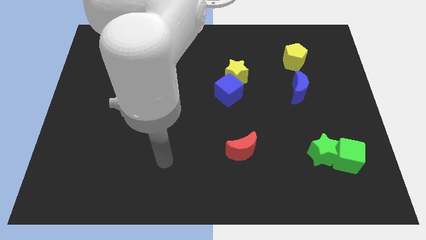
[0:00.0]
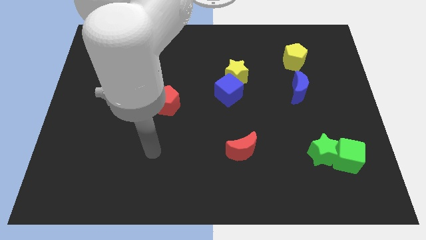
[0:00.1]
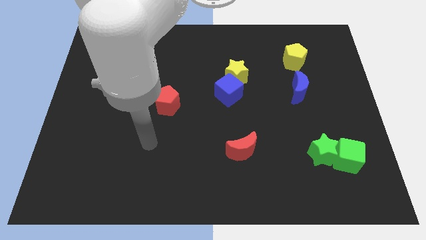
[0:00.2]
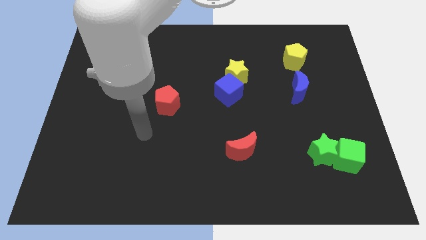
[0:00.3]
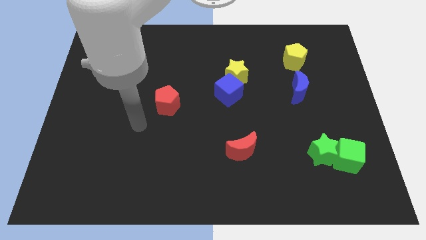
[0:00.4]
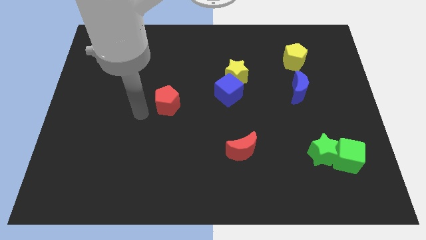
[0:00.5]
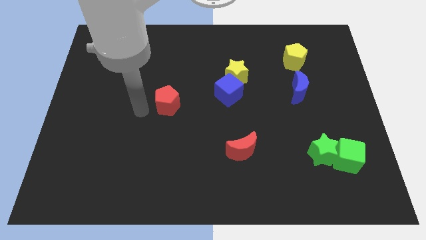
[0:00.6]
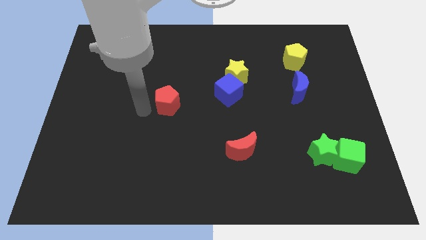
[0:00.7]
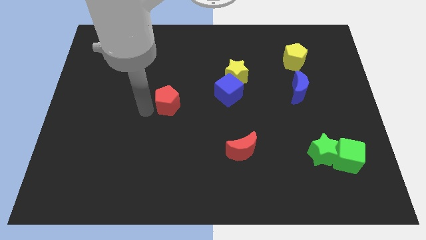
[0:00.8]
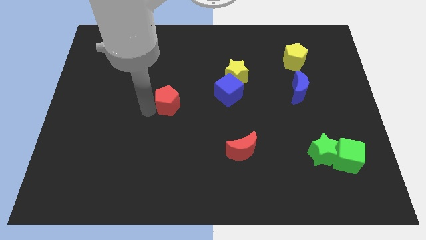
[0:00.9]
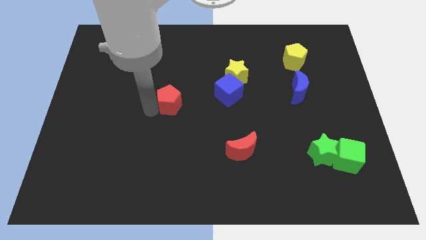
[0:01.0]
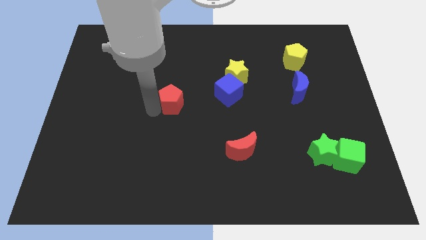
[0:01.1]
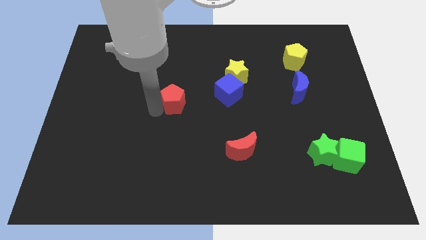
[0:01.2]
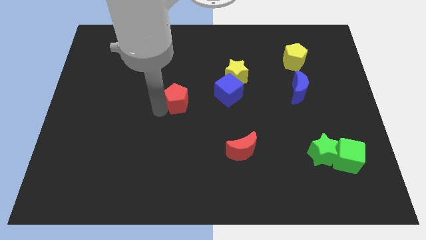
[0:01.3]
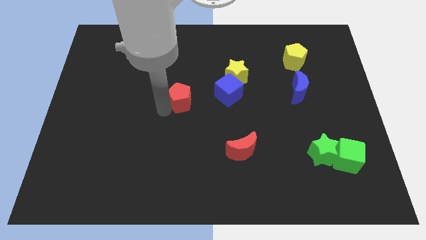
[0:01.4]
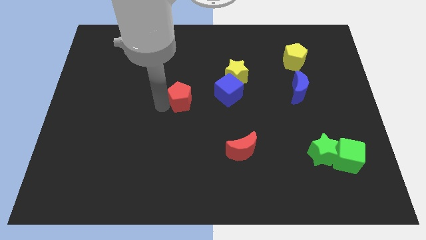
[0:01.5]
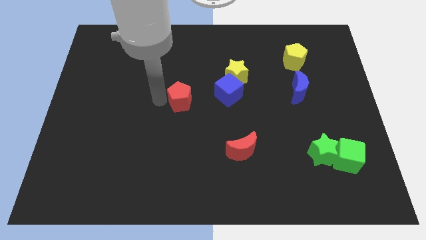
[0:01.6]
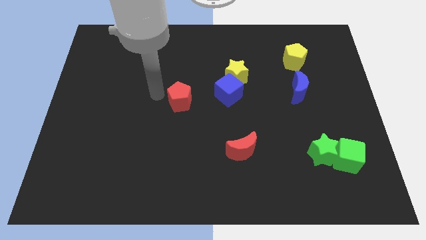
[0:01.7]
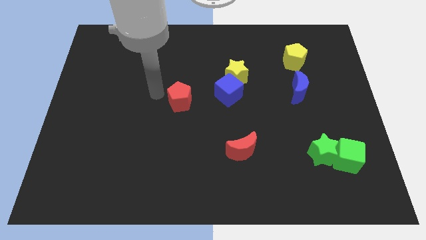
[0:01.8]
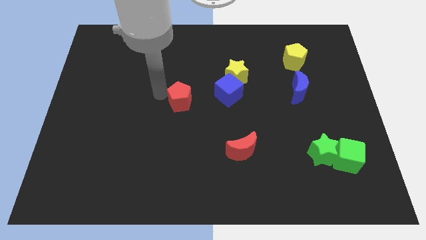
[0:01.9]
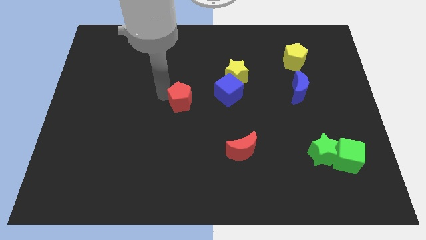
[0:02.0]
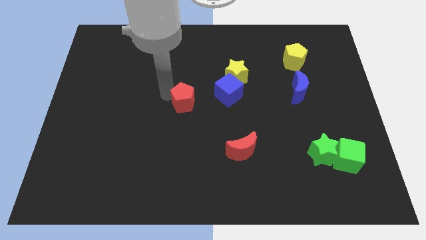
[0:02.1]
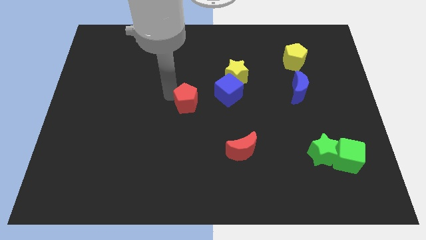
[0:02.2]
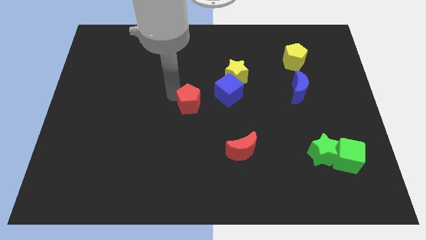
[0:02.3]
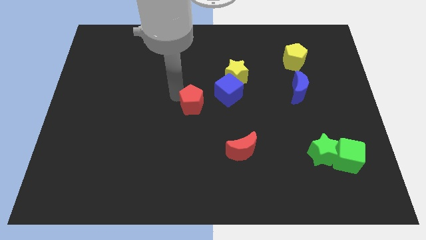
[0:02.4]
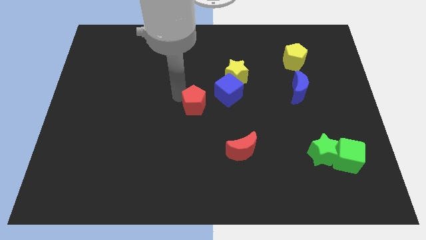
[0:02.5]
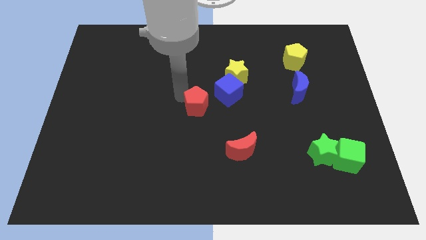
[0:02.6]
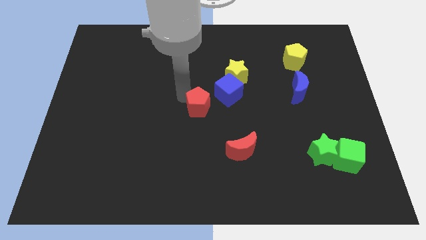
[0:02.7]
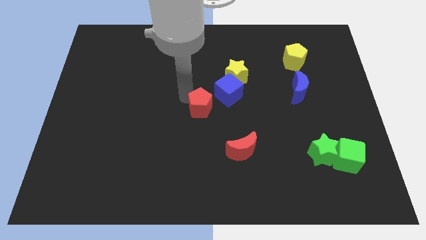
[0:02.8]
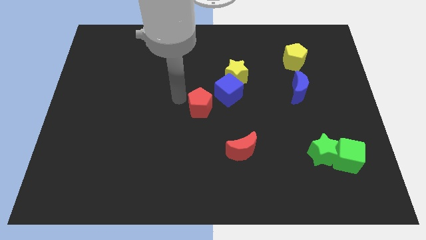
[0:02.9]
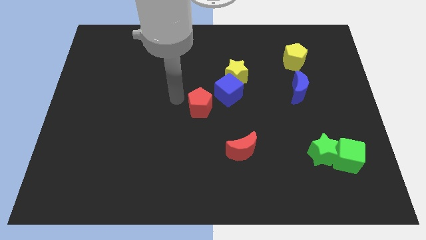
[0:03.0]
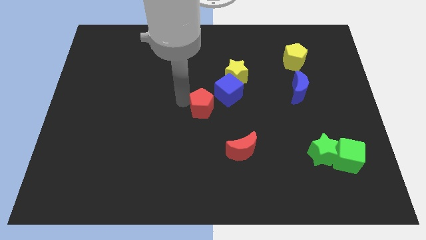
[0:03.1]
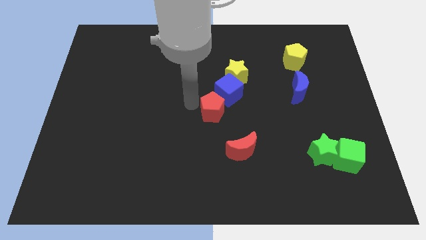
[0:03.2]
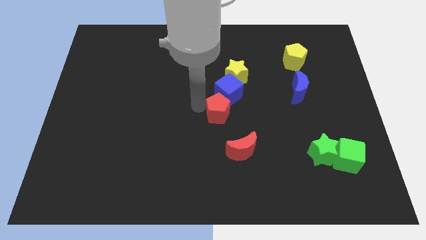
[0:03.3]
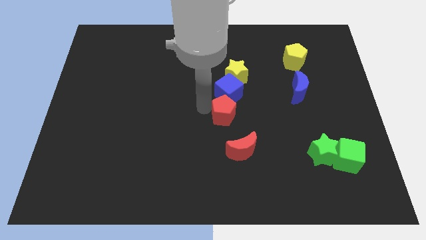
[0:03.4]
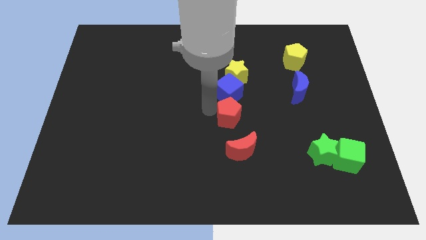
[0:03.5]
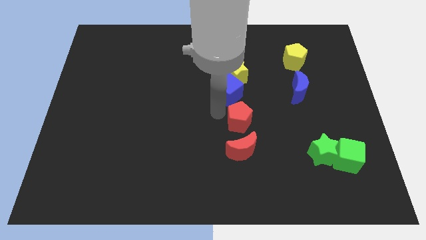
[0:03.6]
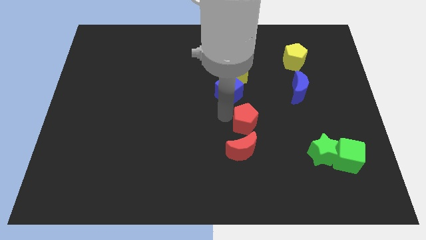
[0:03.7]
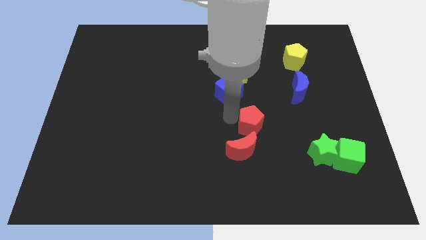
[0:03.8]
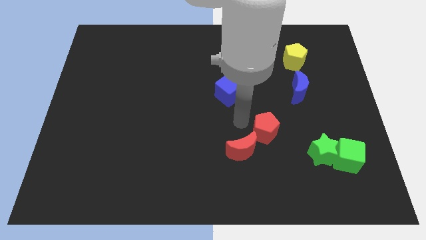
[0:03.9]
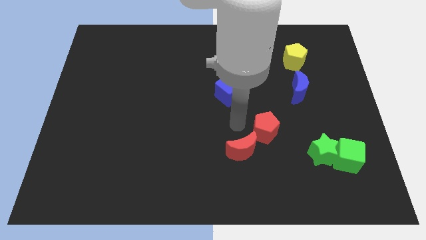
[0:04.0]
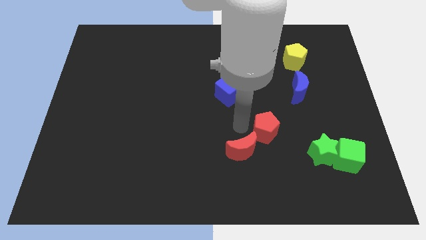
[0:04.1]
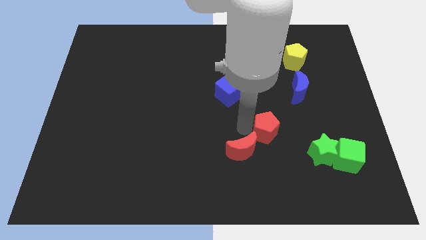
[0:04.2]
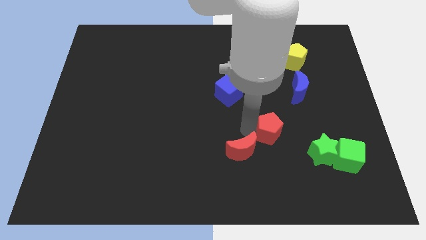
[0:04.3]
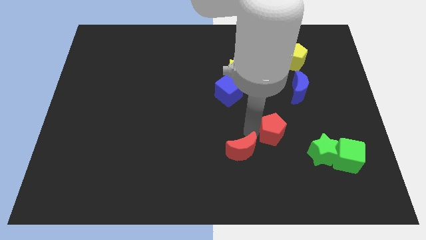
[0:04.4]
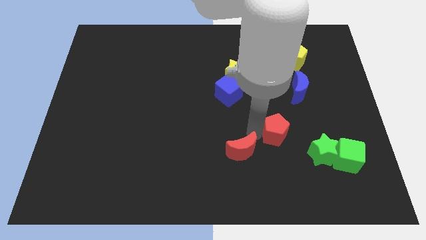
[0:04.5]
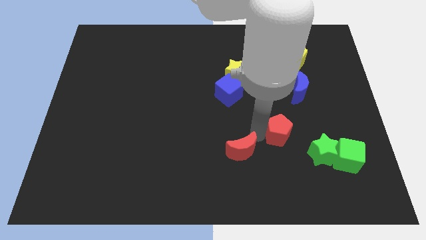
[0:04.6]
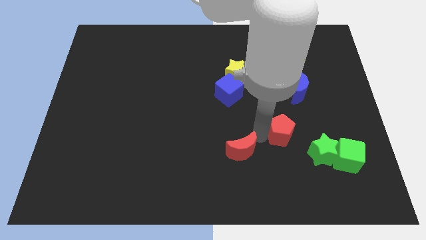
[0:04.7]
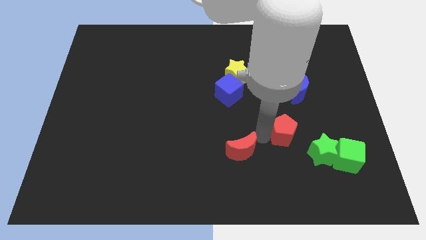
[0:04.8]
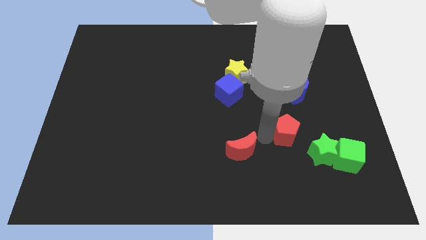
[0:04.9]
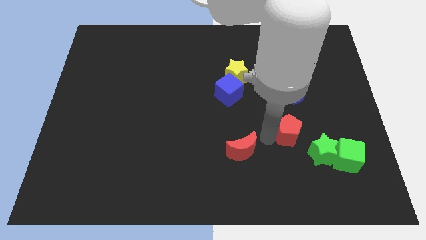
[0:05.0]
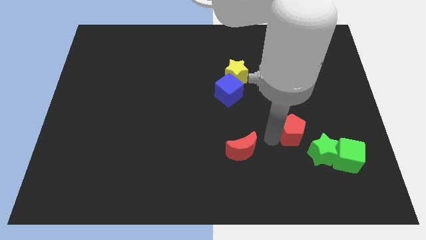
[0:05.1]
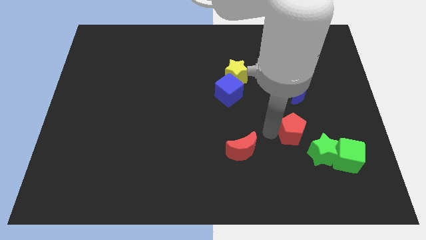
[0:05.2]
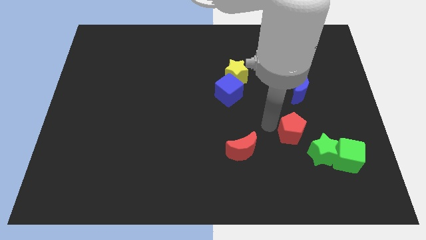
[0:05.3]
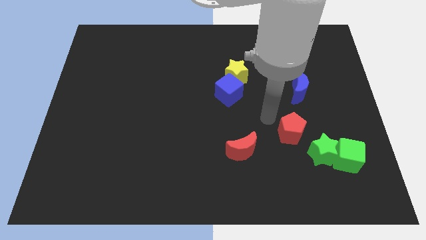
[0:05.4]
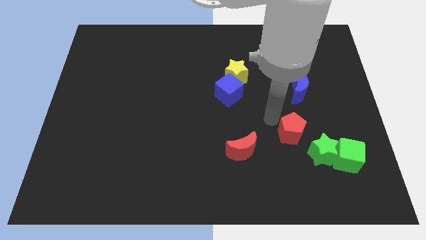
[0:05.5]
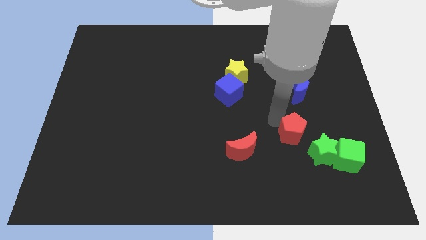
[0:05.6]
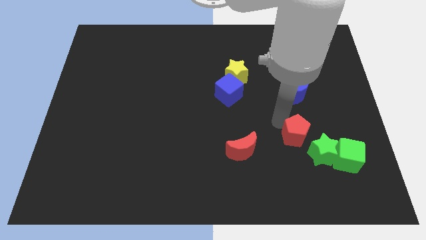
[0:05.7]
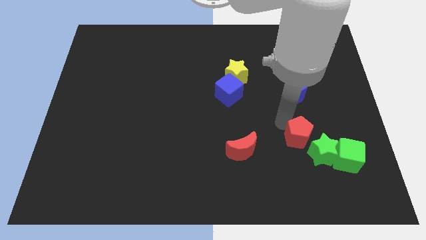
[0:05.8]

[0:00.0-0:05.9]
put the red pentagon close to the green star
